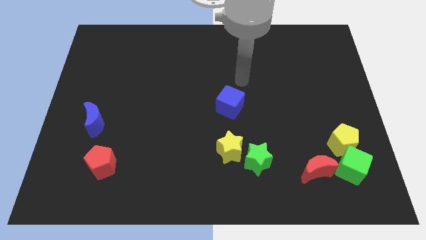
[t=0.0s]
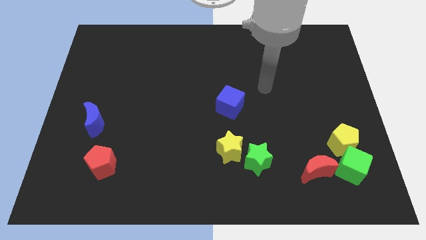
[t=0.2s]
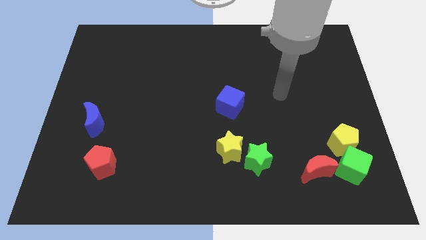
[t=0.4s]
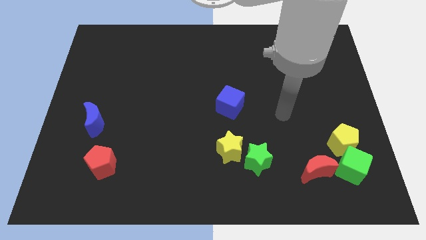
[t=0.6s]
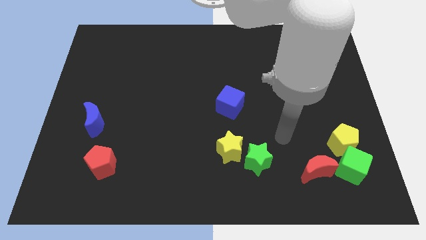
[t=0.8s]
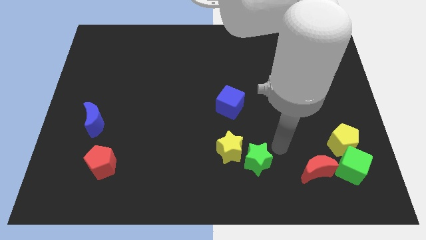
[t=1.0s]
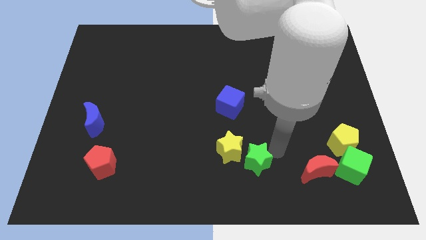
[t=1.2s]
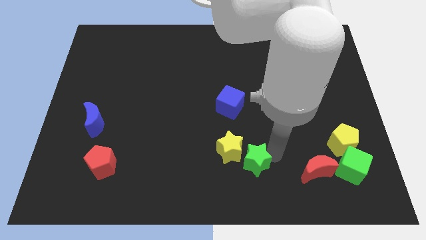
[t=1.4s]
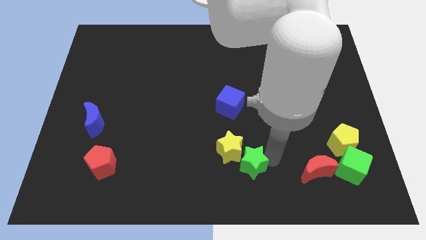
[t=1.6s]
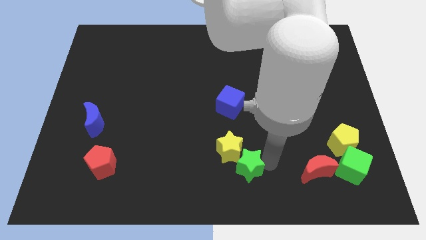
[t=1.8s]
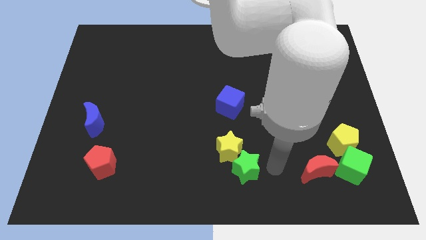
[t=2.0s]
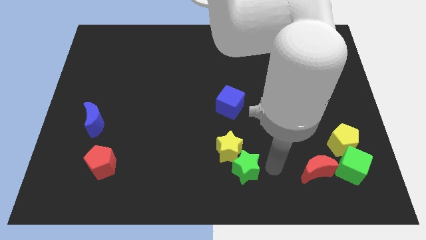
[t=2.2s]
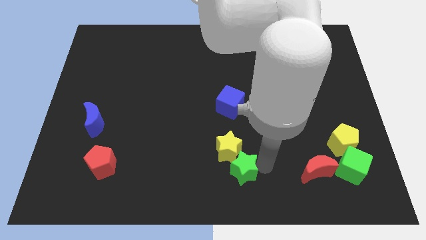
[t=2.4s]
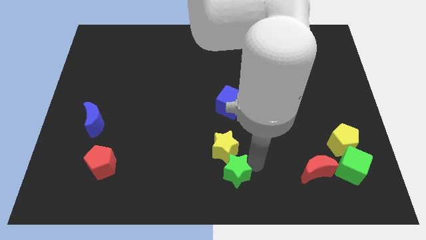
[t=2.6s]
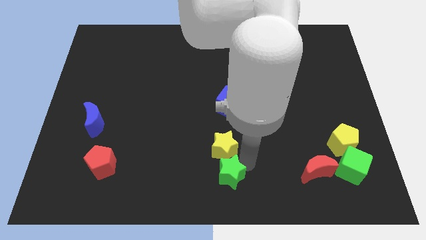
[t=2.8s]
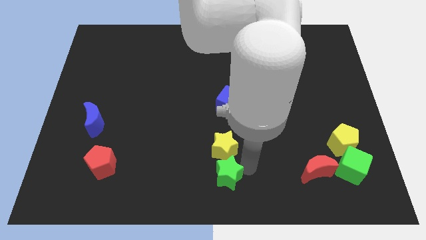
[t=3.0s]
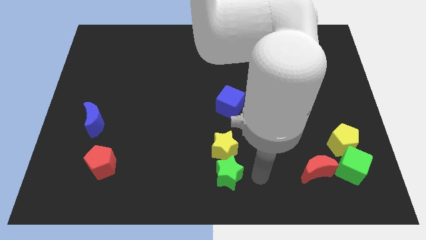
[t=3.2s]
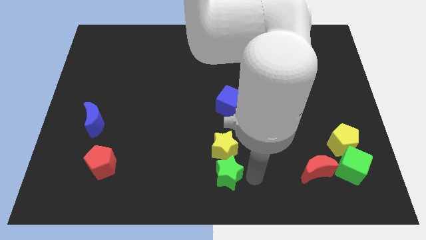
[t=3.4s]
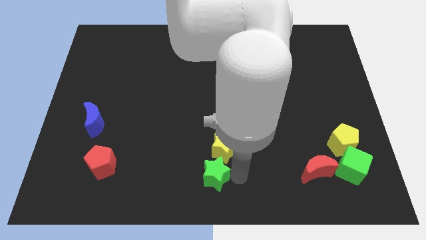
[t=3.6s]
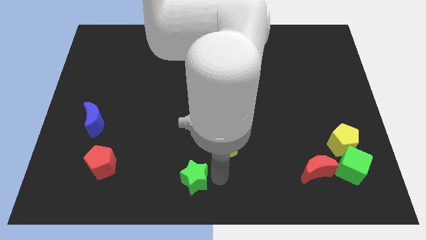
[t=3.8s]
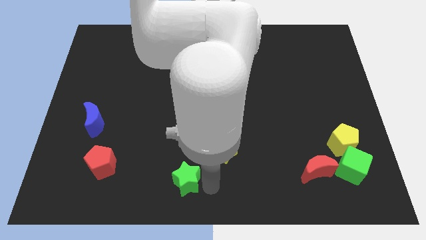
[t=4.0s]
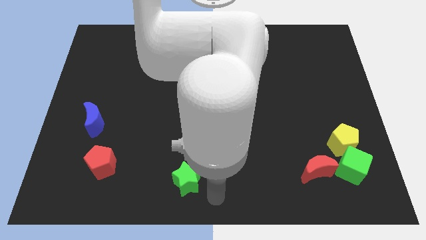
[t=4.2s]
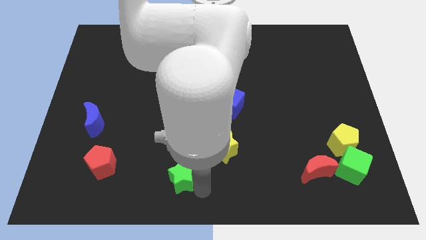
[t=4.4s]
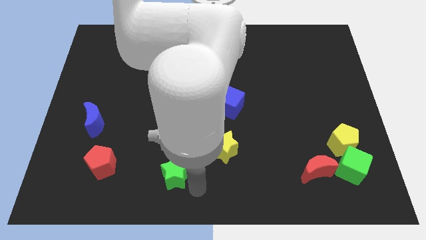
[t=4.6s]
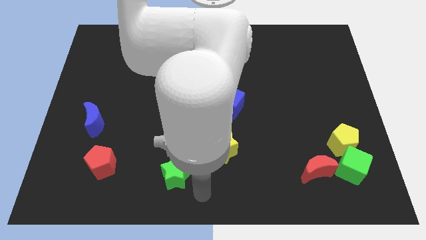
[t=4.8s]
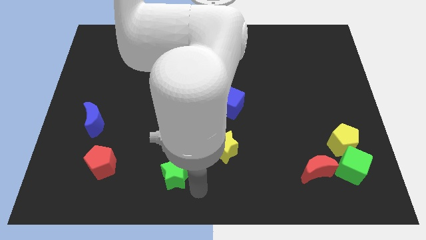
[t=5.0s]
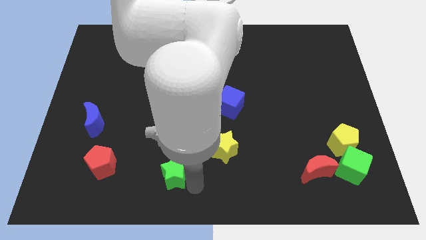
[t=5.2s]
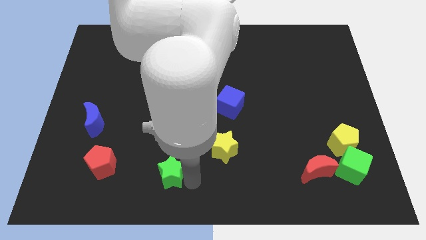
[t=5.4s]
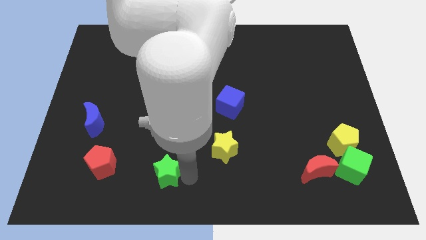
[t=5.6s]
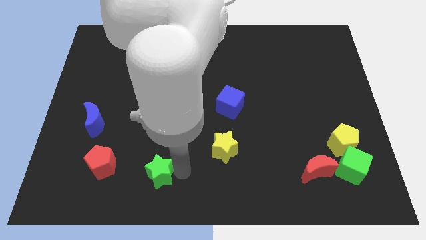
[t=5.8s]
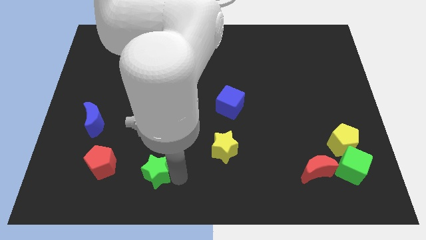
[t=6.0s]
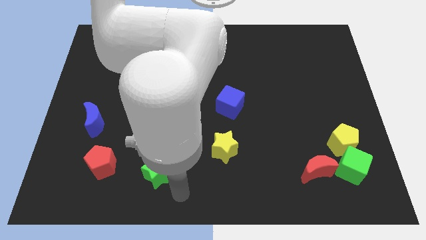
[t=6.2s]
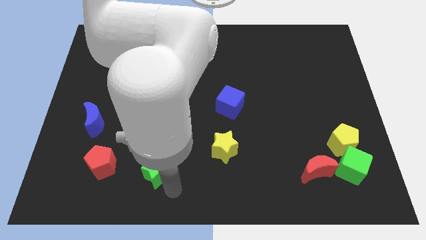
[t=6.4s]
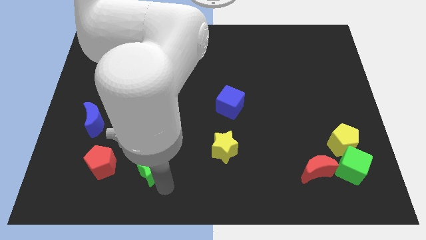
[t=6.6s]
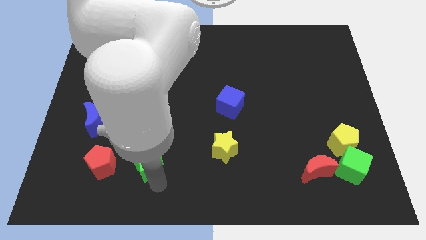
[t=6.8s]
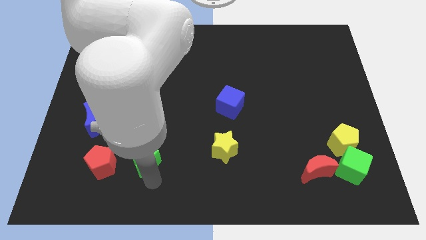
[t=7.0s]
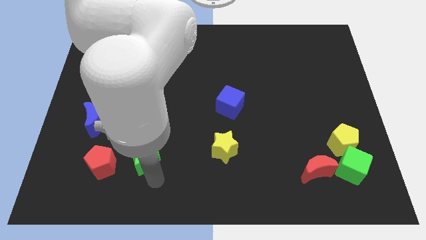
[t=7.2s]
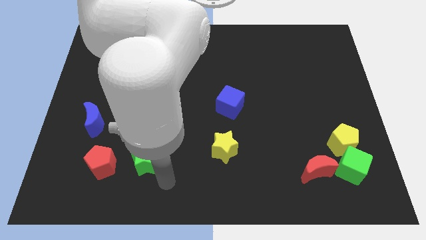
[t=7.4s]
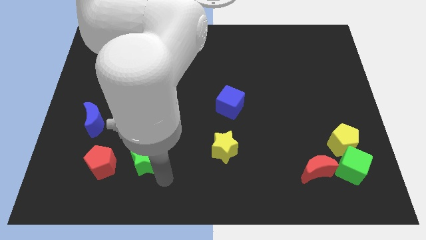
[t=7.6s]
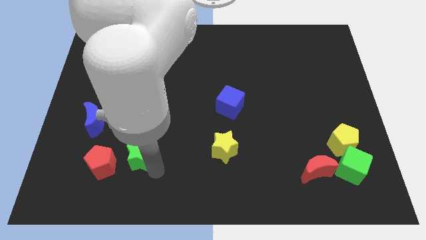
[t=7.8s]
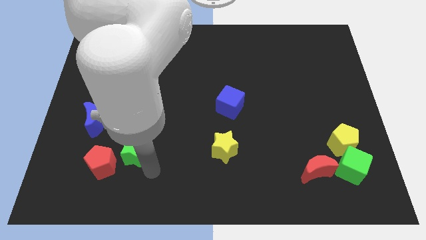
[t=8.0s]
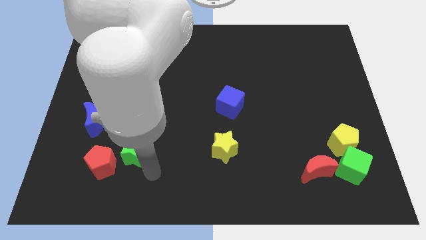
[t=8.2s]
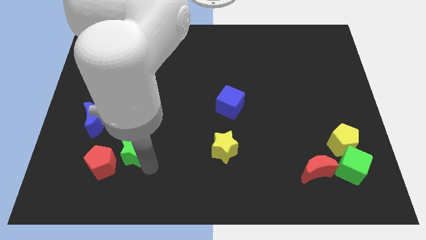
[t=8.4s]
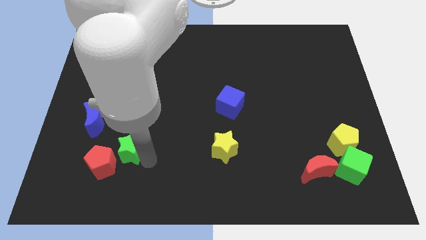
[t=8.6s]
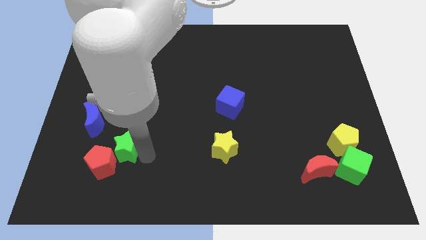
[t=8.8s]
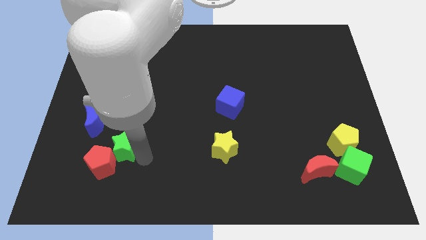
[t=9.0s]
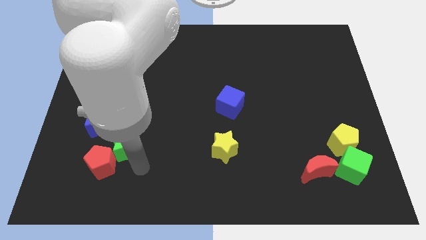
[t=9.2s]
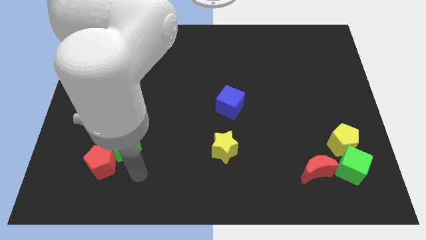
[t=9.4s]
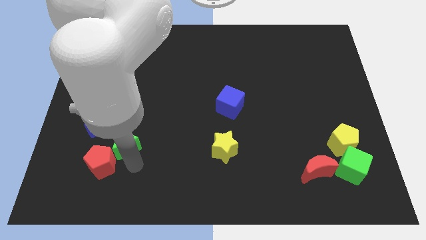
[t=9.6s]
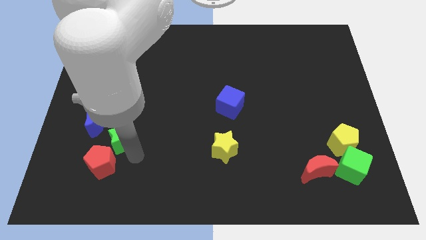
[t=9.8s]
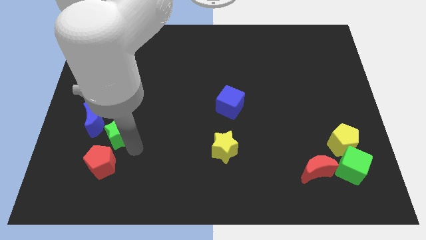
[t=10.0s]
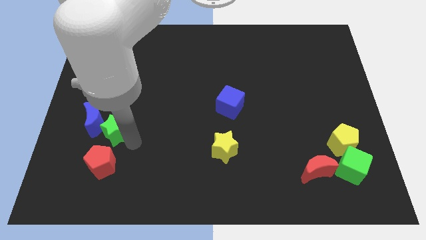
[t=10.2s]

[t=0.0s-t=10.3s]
put the green star next to the blue moon

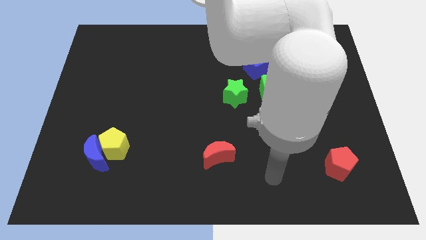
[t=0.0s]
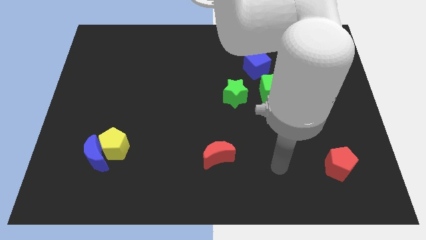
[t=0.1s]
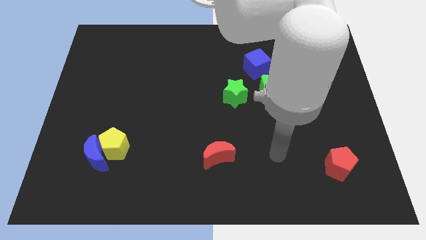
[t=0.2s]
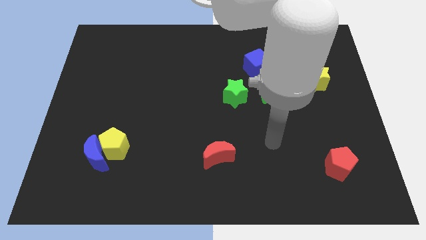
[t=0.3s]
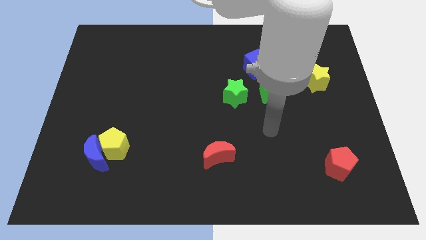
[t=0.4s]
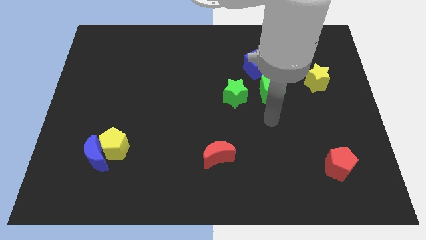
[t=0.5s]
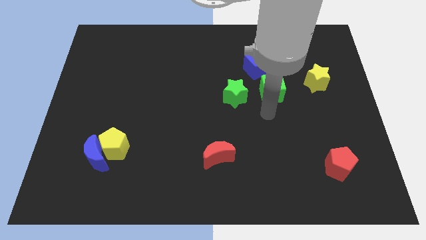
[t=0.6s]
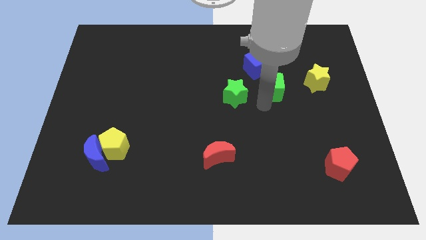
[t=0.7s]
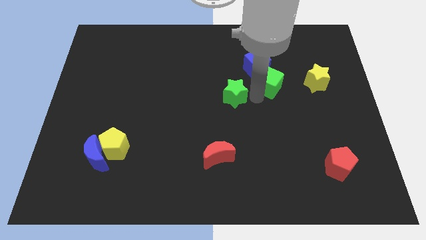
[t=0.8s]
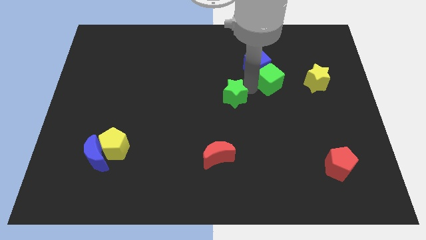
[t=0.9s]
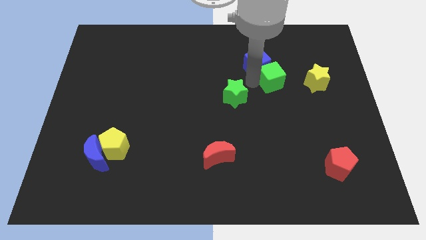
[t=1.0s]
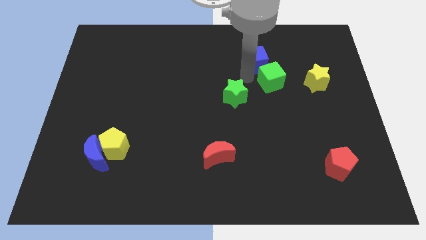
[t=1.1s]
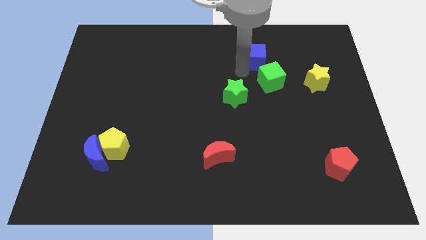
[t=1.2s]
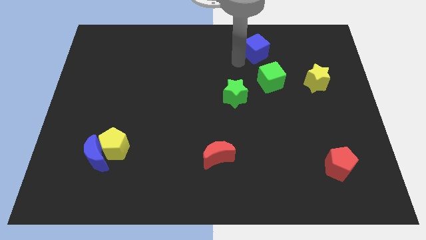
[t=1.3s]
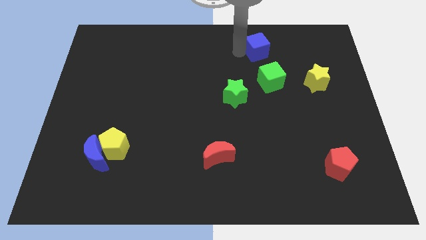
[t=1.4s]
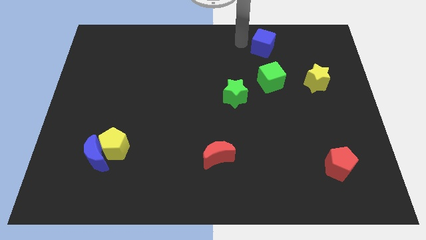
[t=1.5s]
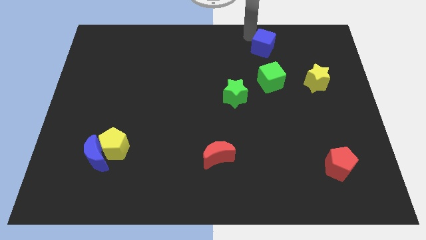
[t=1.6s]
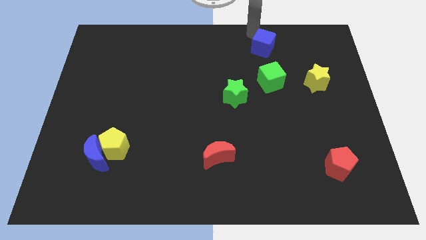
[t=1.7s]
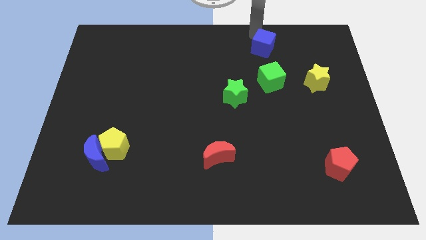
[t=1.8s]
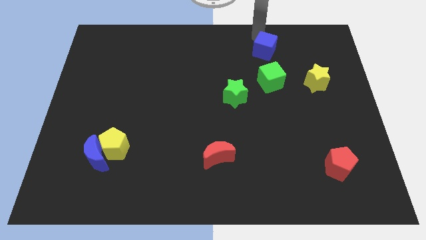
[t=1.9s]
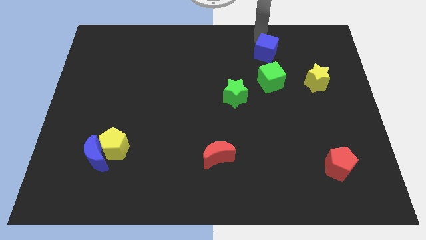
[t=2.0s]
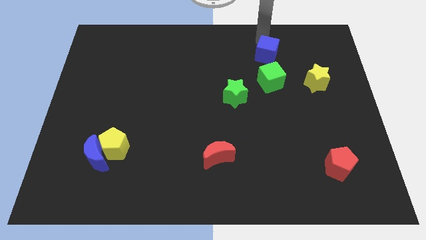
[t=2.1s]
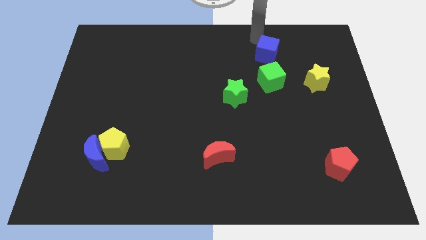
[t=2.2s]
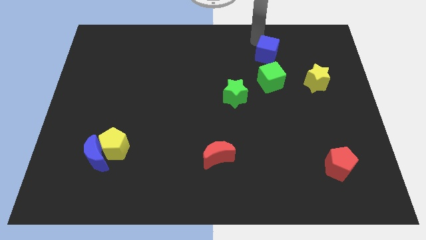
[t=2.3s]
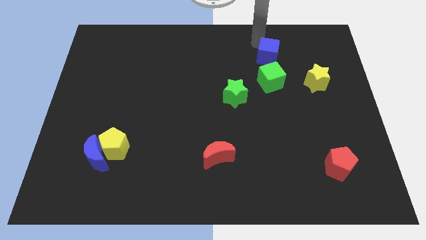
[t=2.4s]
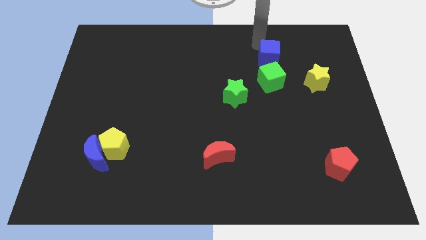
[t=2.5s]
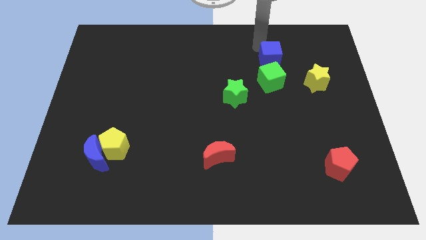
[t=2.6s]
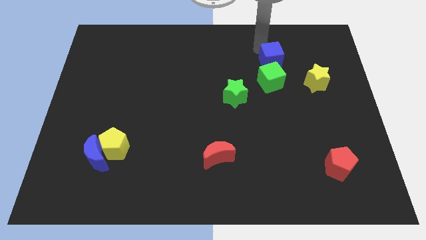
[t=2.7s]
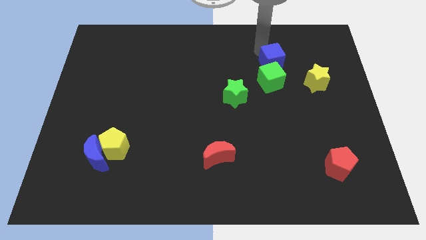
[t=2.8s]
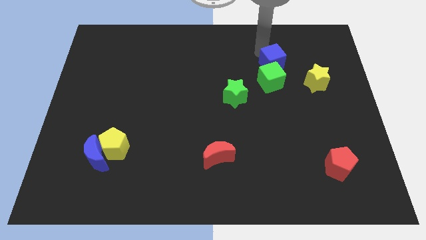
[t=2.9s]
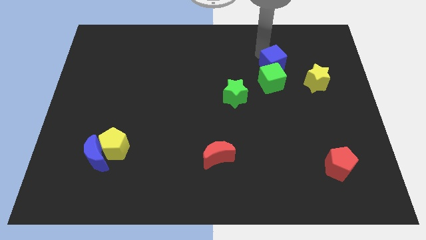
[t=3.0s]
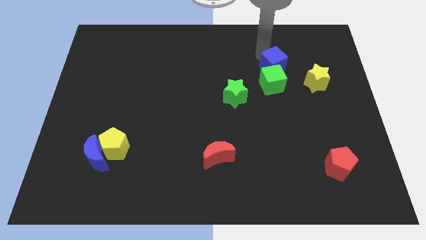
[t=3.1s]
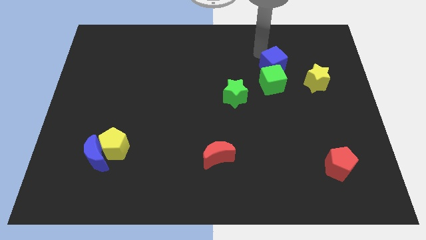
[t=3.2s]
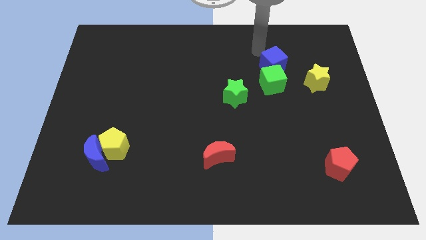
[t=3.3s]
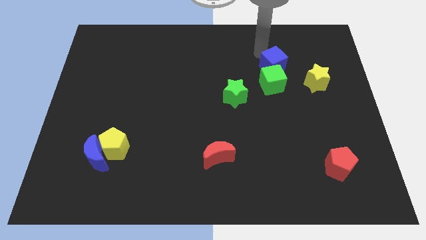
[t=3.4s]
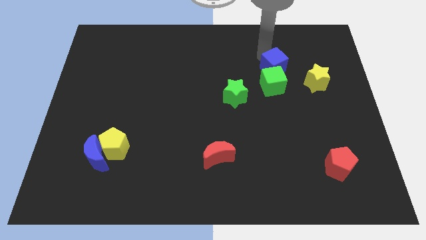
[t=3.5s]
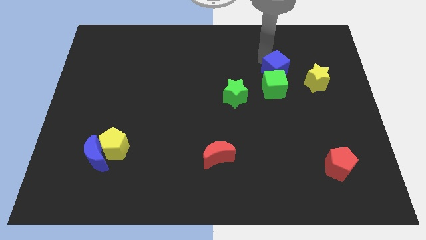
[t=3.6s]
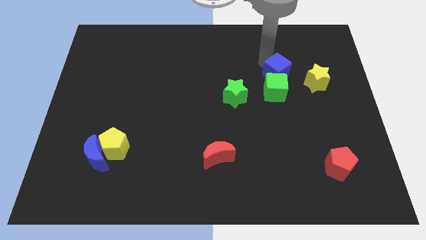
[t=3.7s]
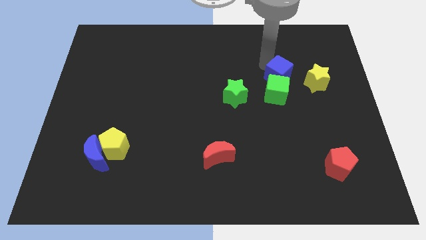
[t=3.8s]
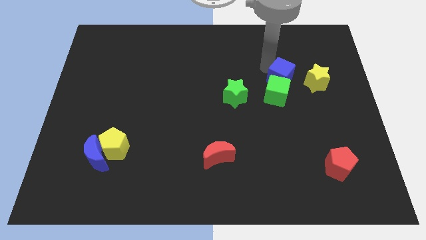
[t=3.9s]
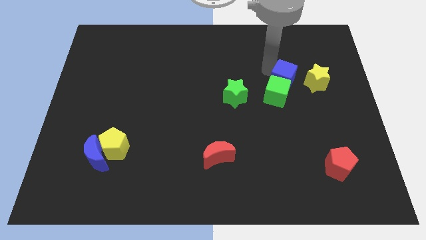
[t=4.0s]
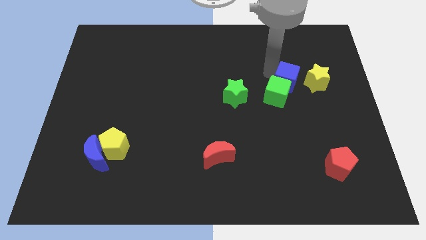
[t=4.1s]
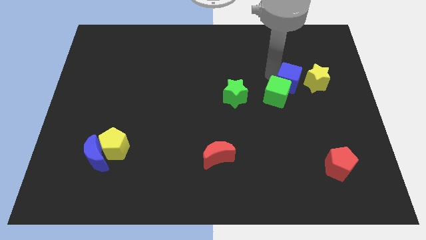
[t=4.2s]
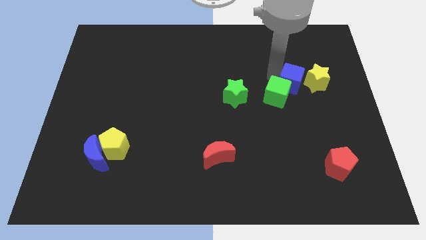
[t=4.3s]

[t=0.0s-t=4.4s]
slide the blue cube next to the yellow star
